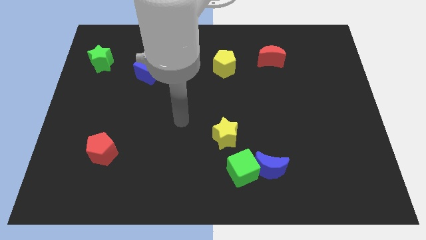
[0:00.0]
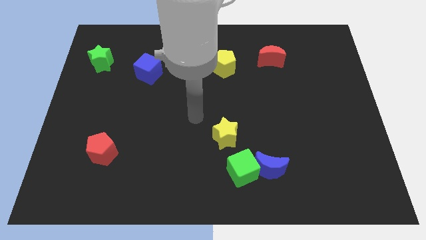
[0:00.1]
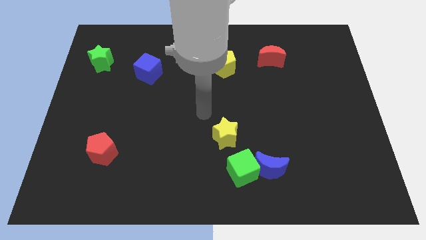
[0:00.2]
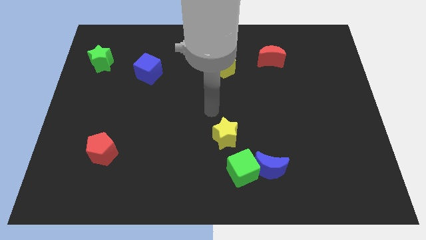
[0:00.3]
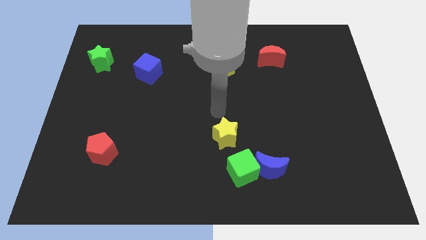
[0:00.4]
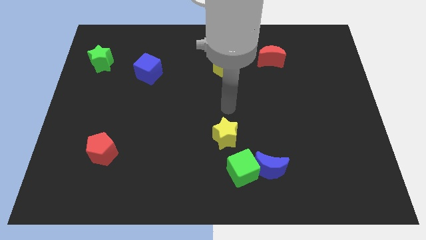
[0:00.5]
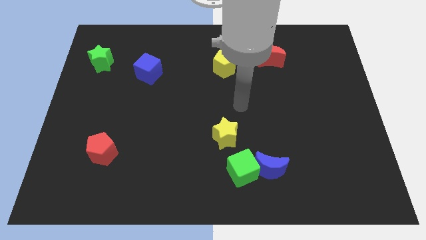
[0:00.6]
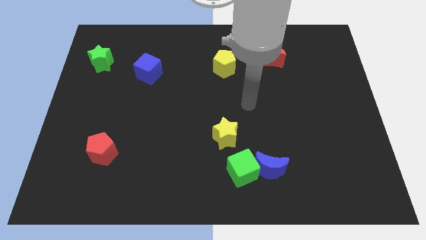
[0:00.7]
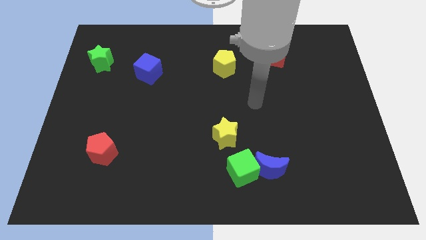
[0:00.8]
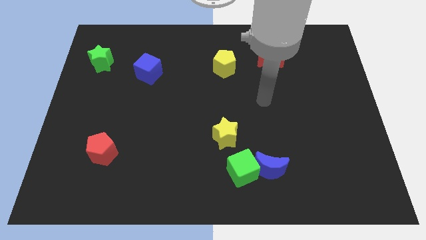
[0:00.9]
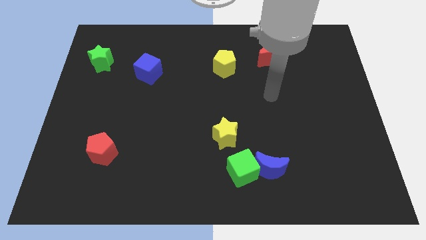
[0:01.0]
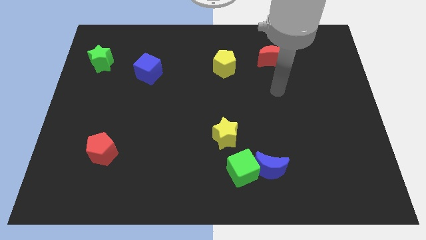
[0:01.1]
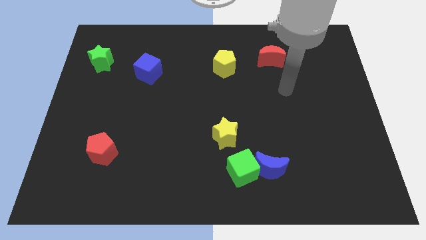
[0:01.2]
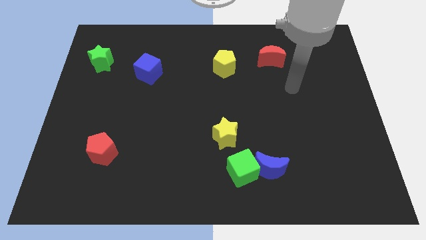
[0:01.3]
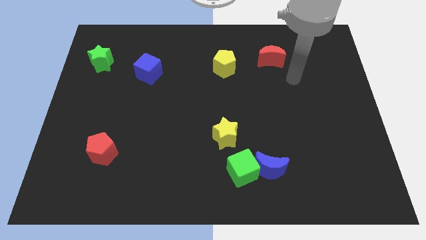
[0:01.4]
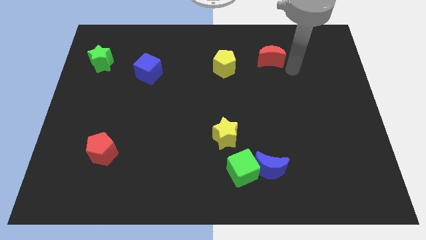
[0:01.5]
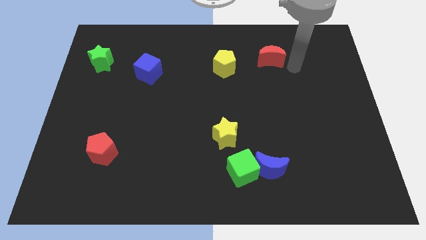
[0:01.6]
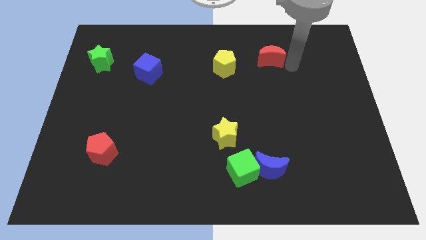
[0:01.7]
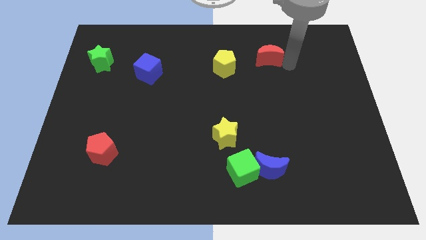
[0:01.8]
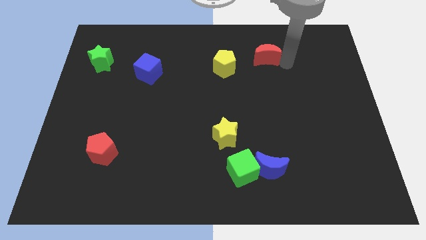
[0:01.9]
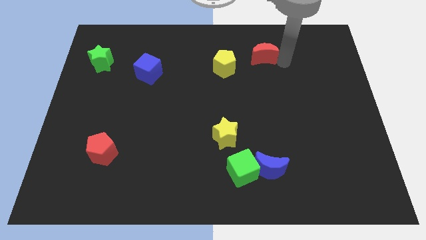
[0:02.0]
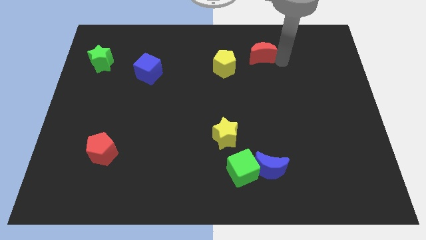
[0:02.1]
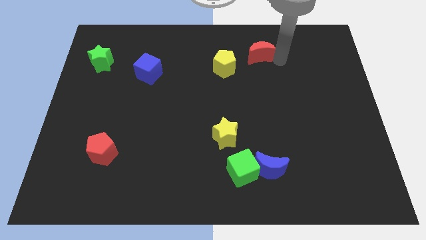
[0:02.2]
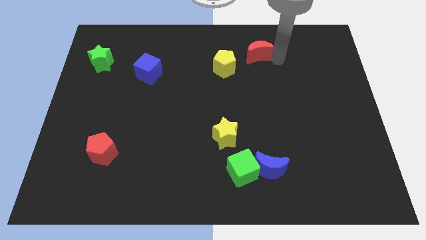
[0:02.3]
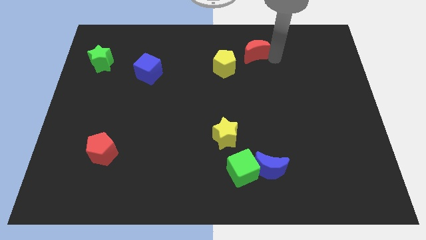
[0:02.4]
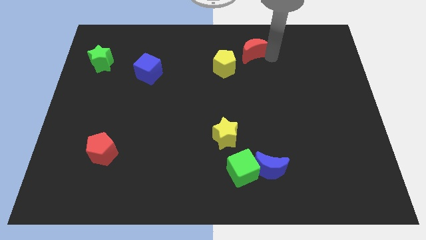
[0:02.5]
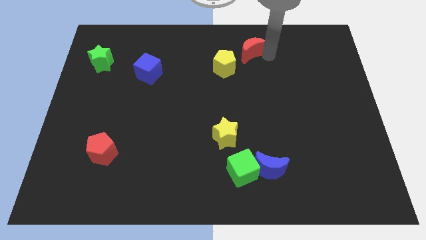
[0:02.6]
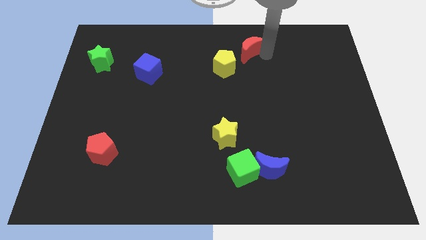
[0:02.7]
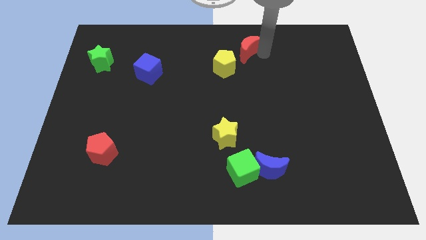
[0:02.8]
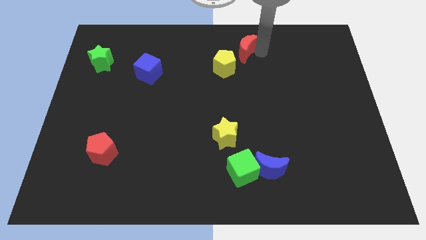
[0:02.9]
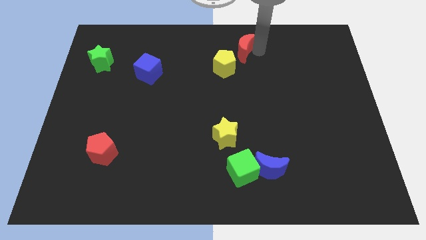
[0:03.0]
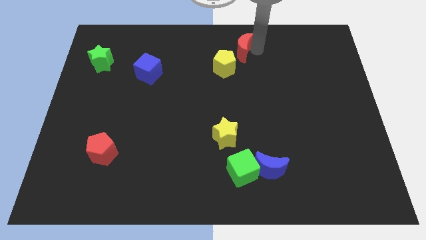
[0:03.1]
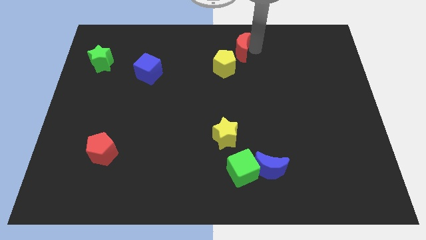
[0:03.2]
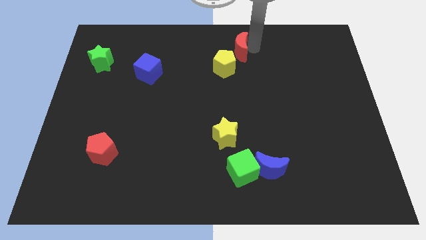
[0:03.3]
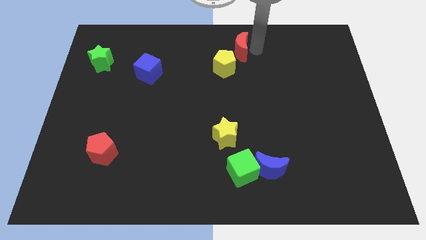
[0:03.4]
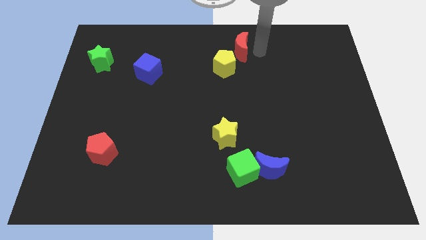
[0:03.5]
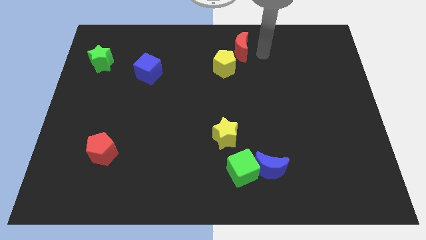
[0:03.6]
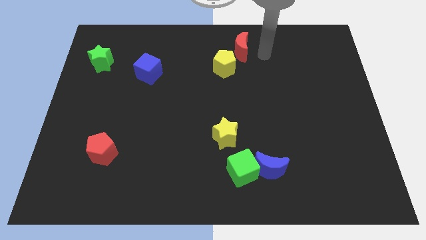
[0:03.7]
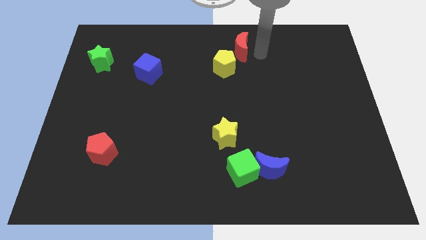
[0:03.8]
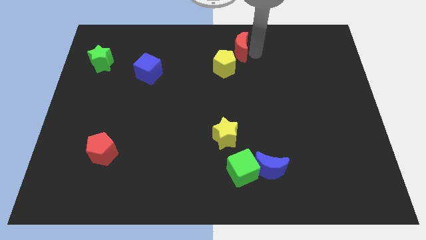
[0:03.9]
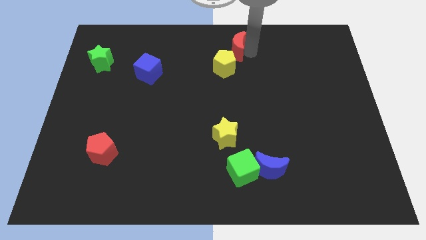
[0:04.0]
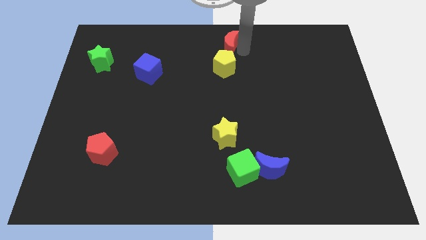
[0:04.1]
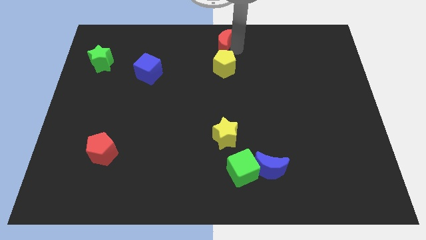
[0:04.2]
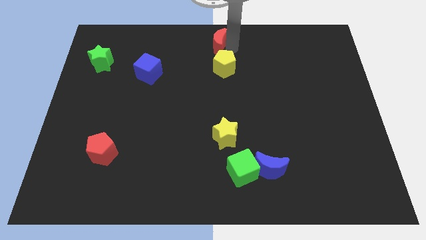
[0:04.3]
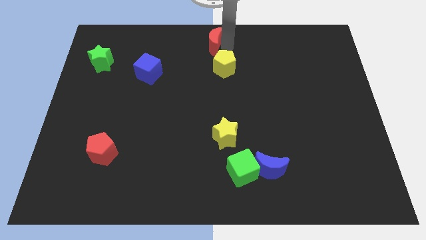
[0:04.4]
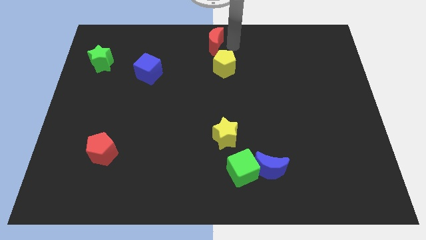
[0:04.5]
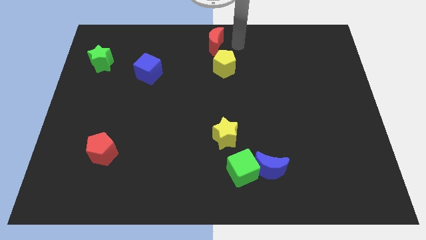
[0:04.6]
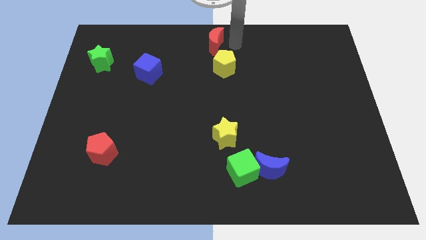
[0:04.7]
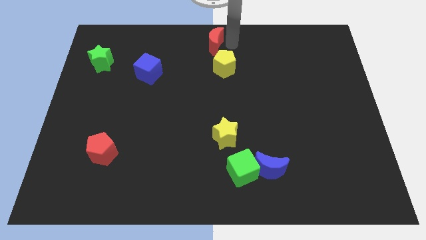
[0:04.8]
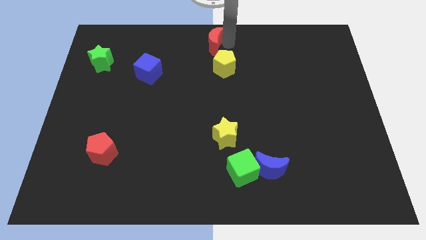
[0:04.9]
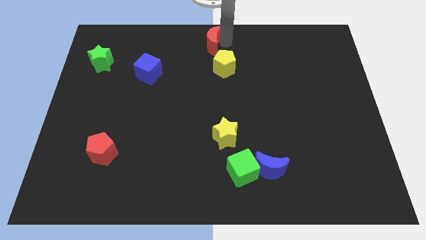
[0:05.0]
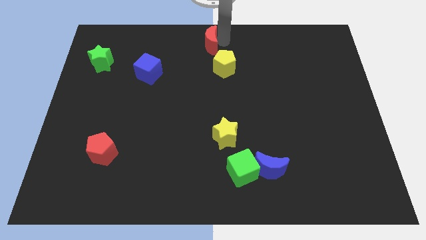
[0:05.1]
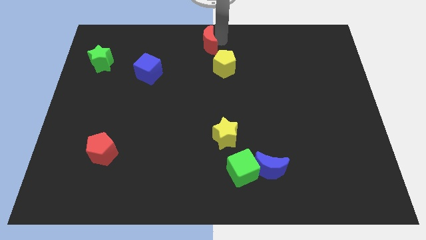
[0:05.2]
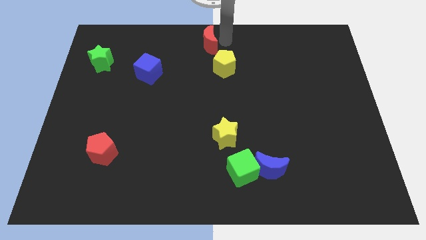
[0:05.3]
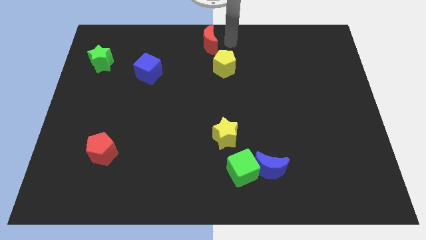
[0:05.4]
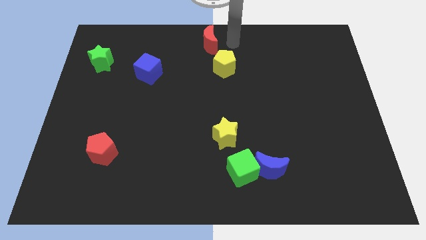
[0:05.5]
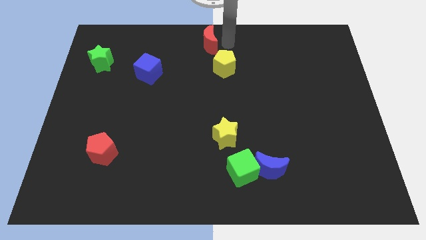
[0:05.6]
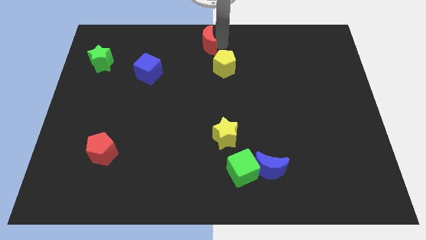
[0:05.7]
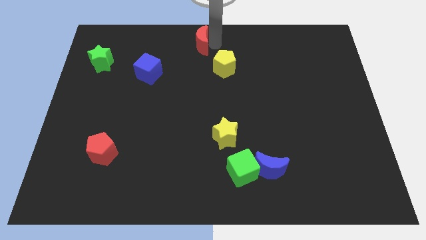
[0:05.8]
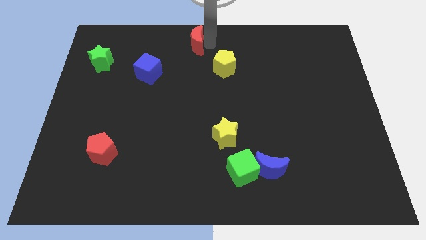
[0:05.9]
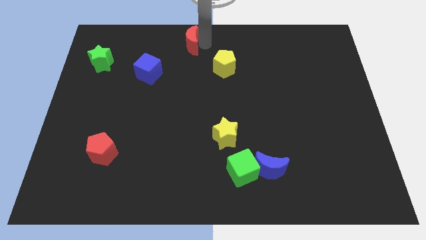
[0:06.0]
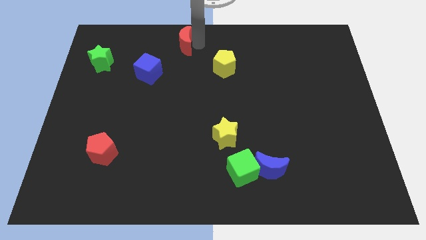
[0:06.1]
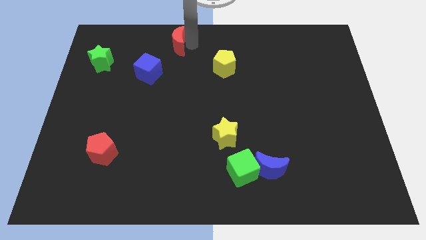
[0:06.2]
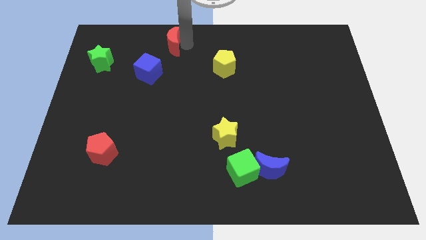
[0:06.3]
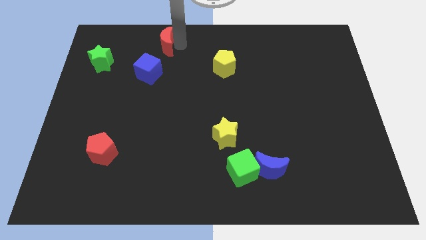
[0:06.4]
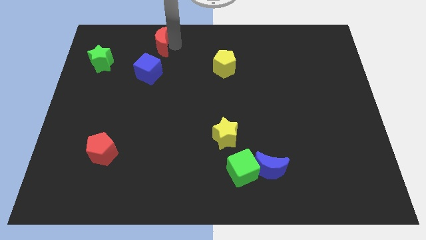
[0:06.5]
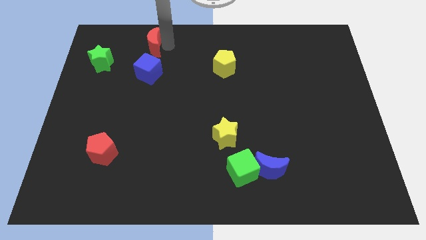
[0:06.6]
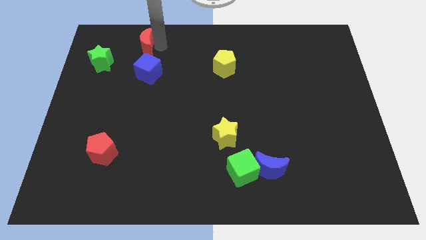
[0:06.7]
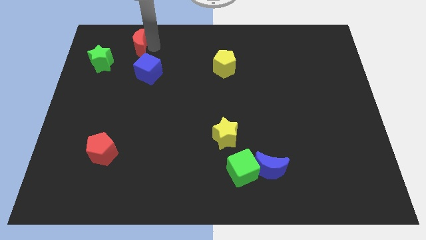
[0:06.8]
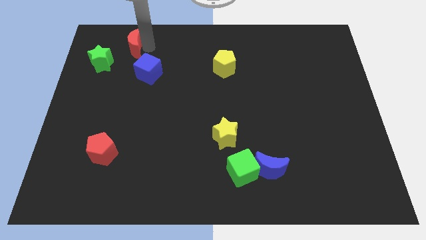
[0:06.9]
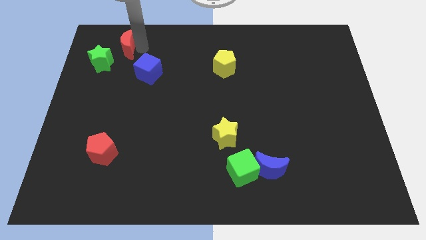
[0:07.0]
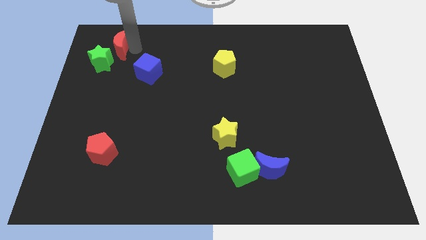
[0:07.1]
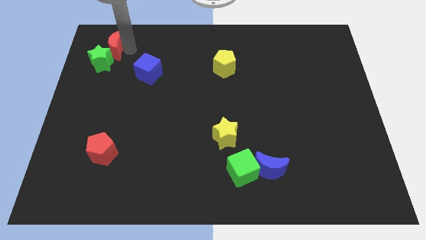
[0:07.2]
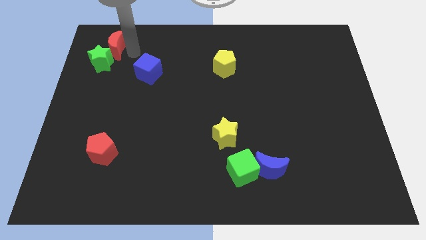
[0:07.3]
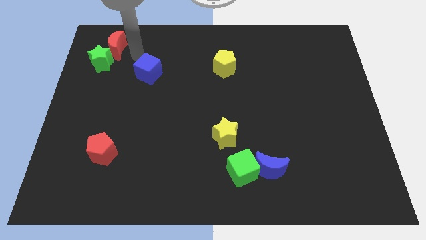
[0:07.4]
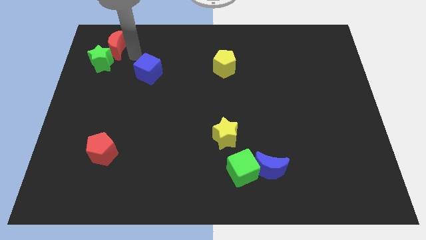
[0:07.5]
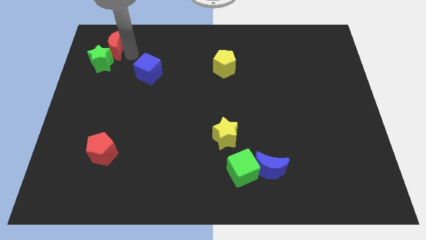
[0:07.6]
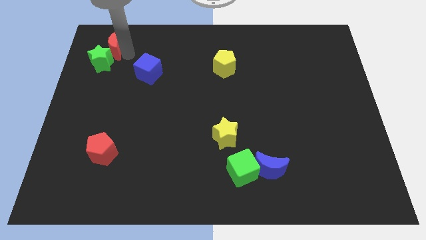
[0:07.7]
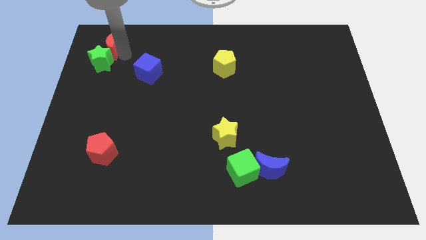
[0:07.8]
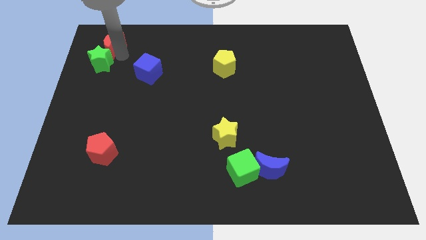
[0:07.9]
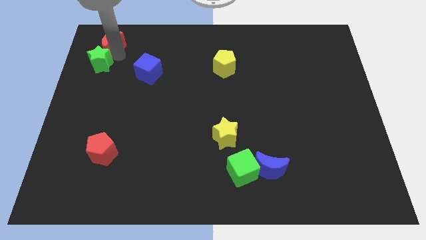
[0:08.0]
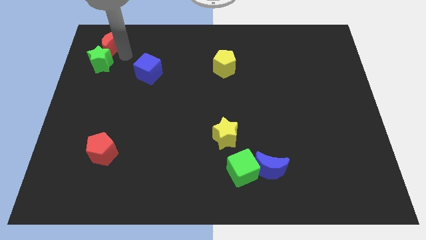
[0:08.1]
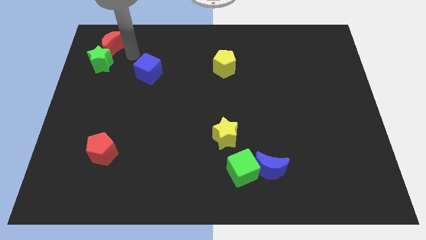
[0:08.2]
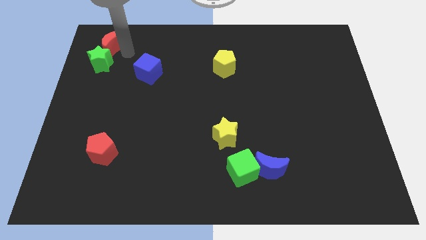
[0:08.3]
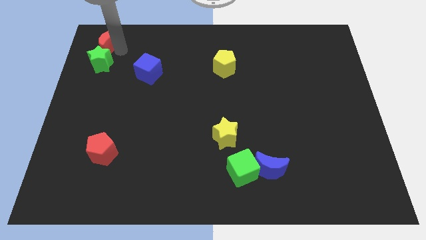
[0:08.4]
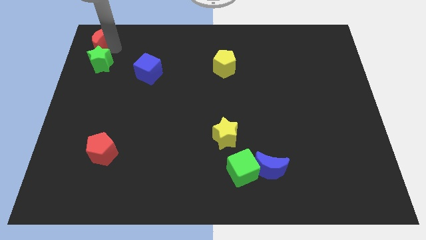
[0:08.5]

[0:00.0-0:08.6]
push the red moon to the top left corner
